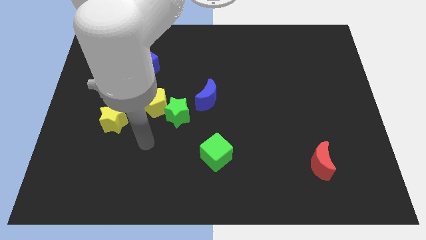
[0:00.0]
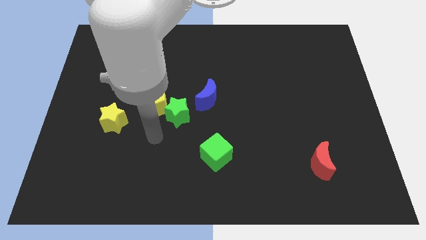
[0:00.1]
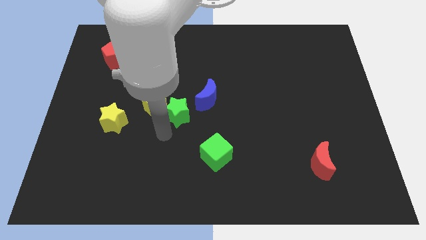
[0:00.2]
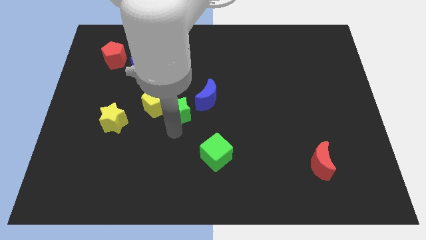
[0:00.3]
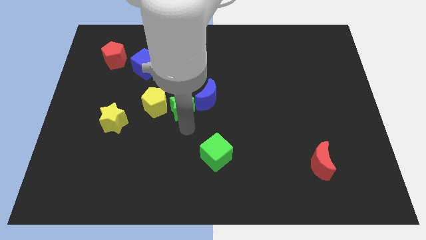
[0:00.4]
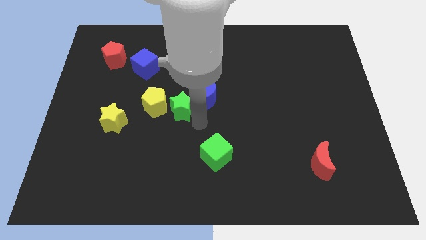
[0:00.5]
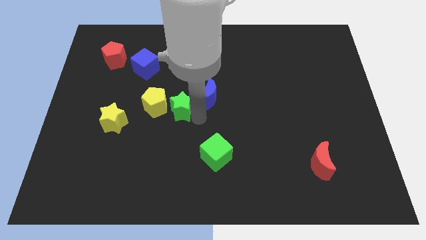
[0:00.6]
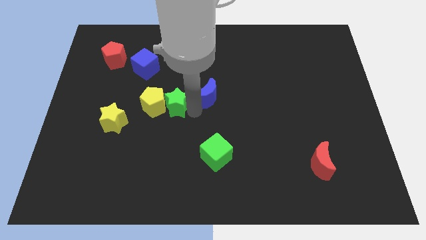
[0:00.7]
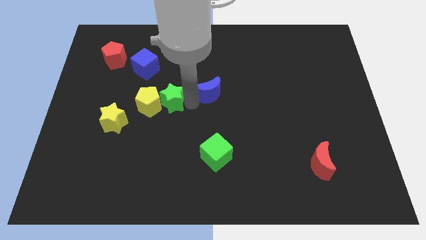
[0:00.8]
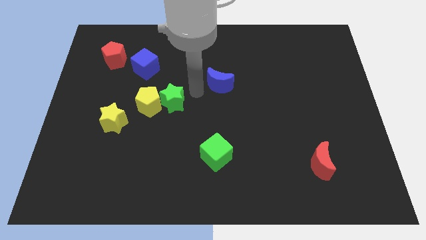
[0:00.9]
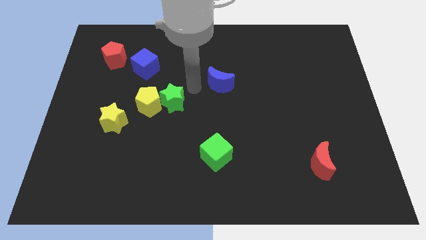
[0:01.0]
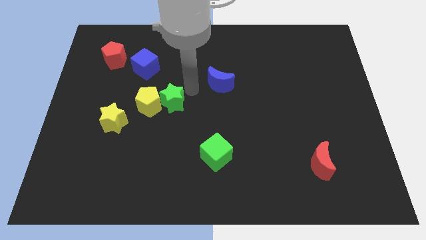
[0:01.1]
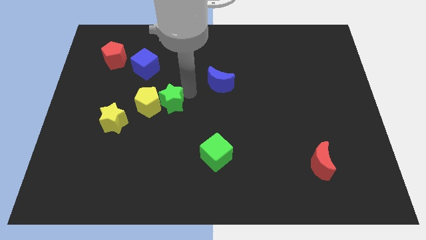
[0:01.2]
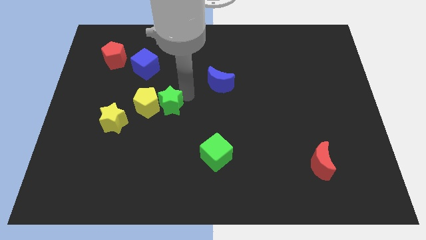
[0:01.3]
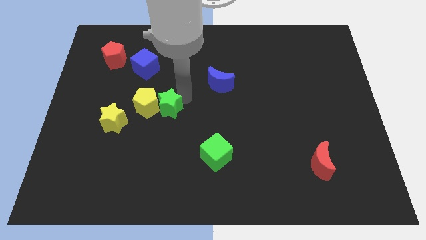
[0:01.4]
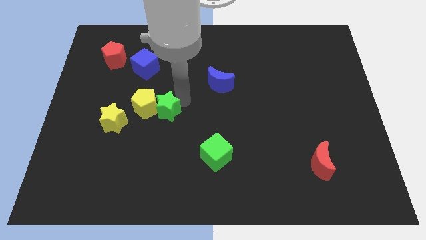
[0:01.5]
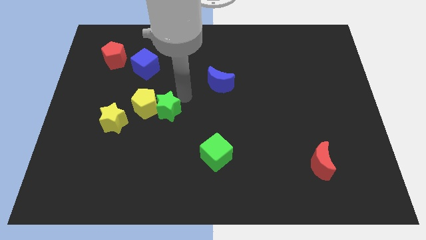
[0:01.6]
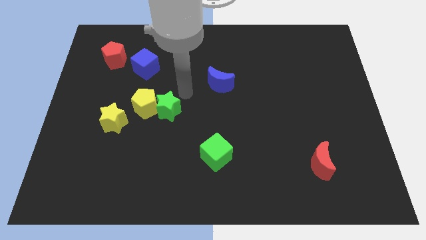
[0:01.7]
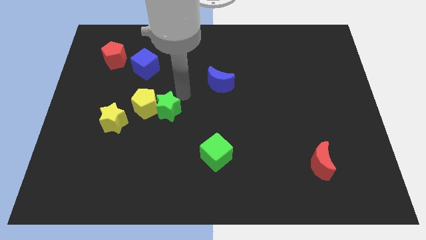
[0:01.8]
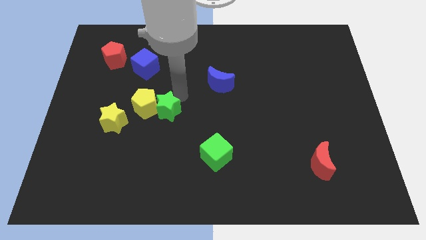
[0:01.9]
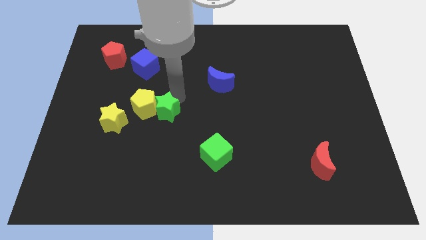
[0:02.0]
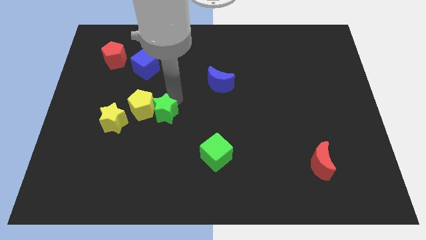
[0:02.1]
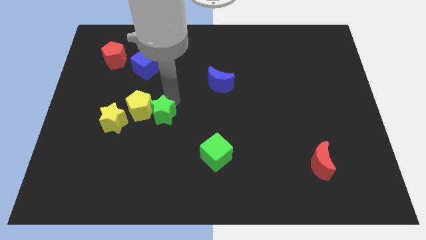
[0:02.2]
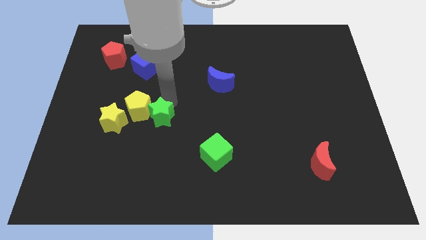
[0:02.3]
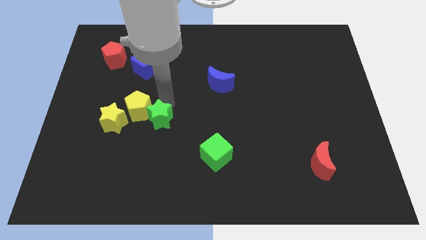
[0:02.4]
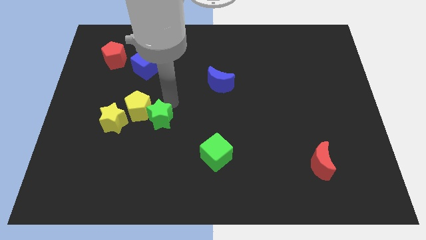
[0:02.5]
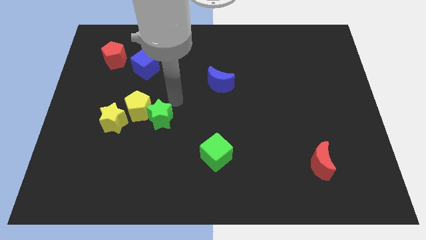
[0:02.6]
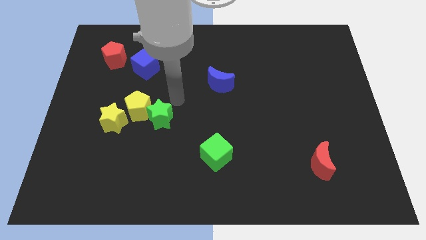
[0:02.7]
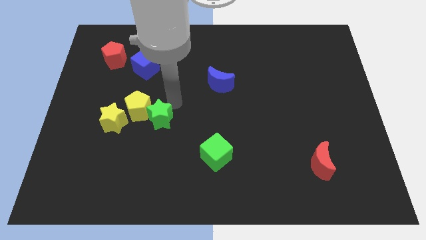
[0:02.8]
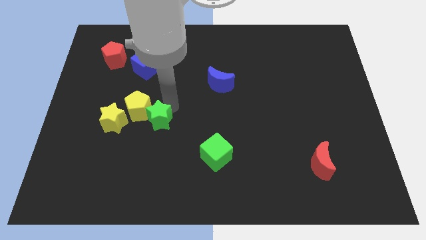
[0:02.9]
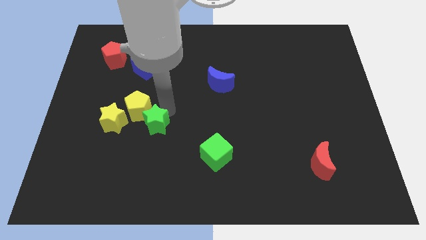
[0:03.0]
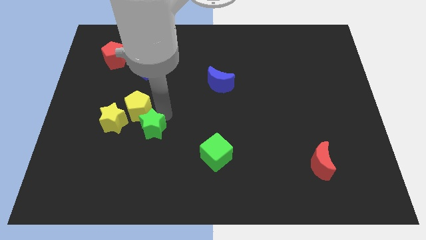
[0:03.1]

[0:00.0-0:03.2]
separate the green star from the yellow pentagon and blue moon

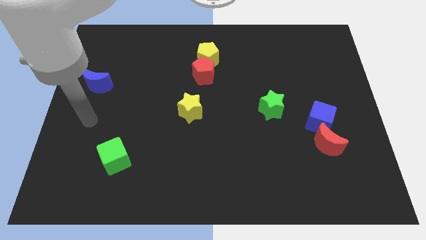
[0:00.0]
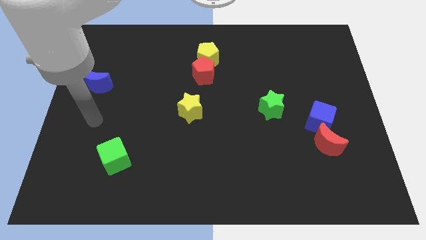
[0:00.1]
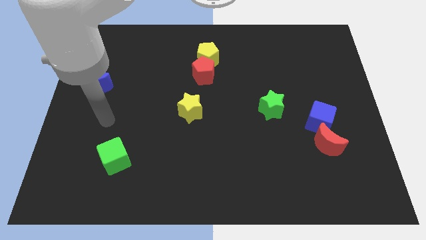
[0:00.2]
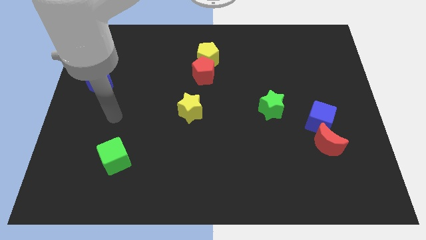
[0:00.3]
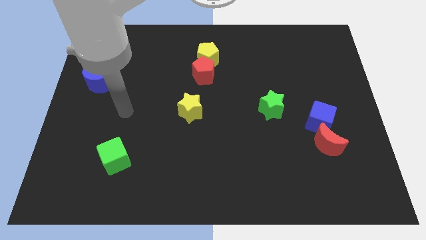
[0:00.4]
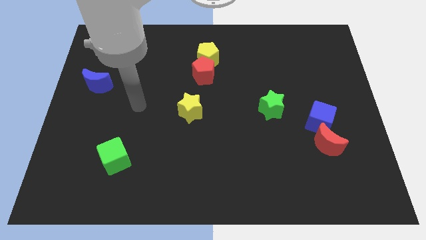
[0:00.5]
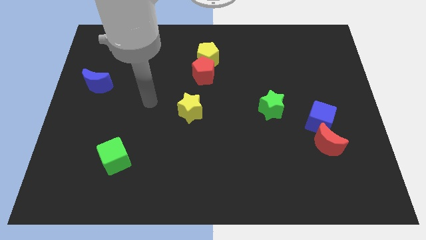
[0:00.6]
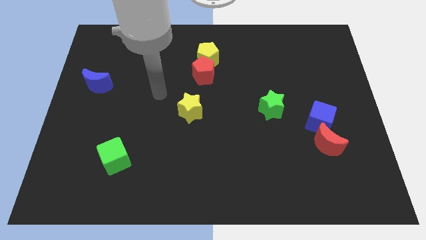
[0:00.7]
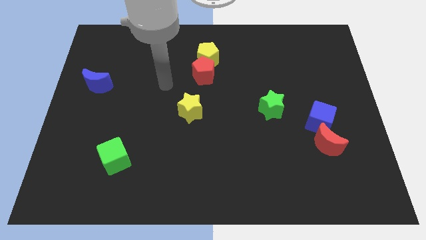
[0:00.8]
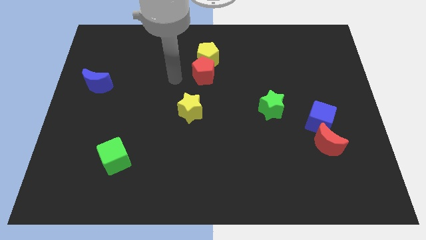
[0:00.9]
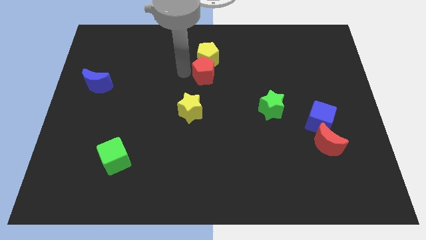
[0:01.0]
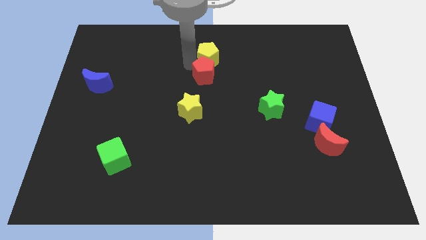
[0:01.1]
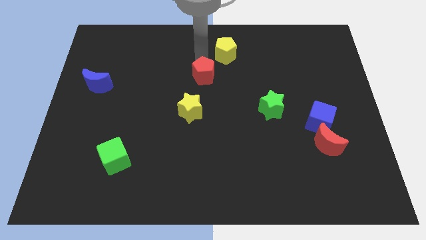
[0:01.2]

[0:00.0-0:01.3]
separate the red pentagon from the yellow pentagon

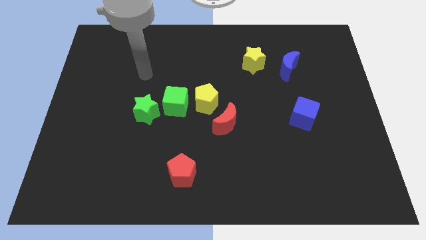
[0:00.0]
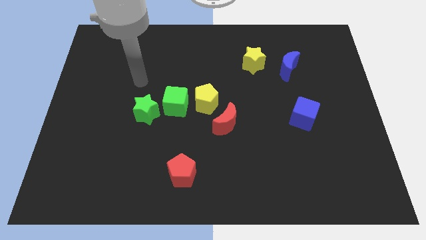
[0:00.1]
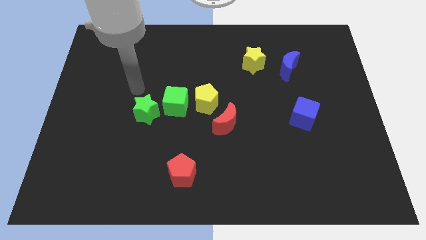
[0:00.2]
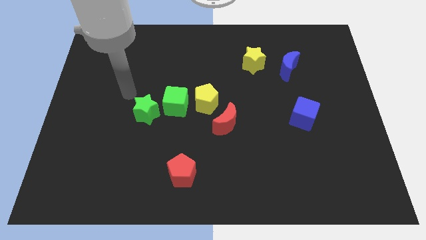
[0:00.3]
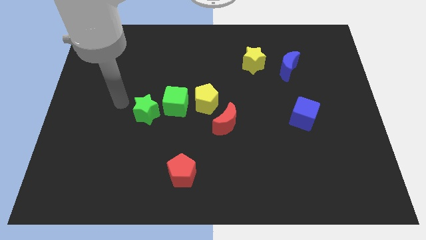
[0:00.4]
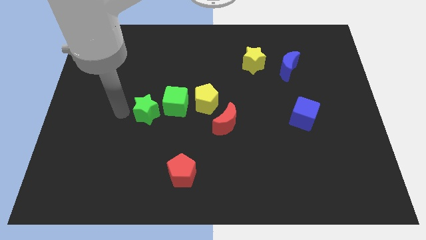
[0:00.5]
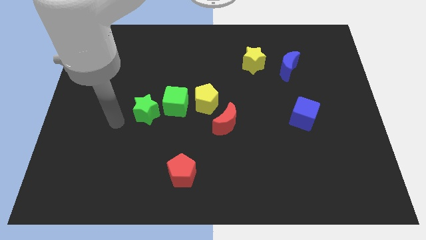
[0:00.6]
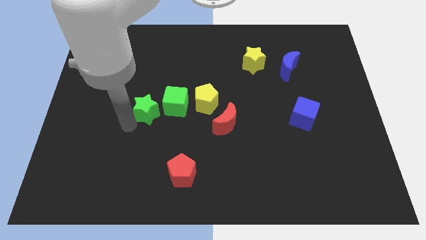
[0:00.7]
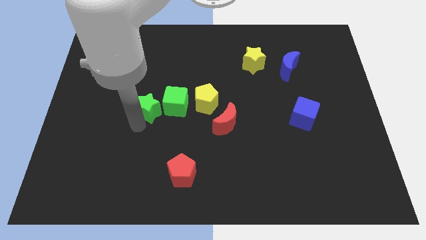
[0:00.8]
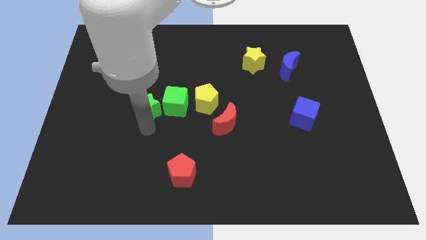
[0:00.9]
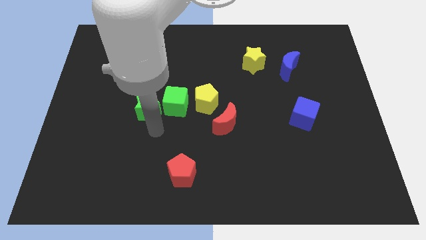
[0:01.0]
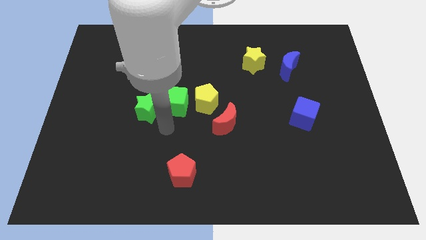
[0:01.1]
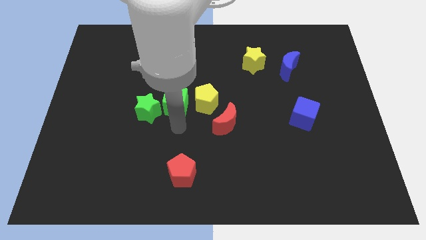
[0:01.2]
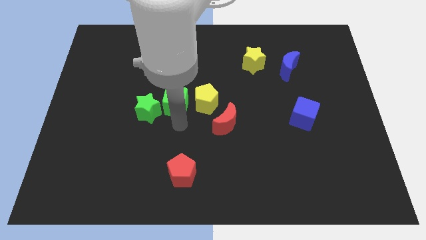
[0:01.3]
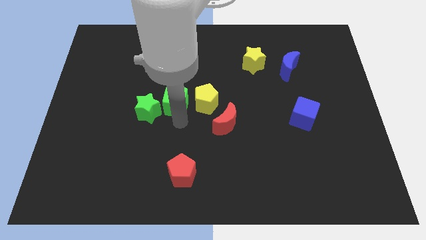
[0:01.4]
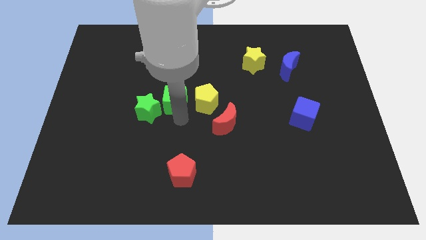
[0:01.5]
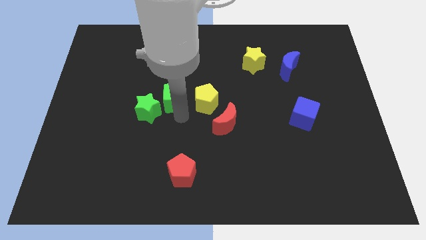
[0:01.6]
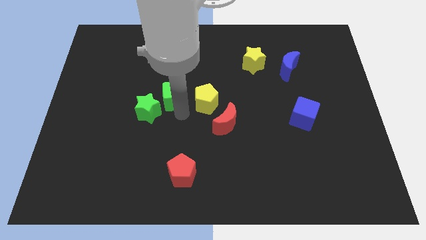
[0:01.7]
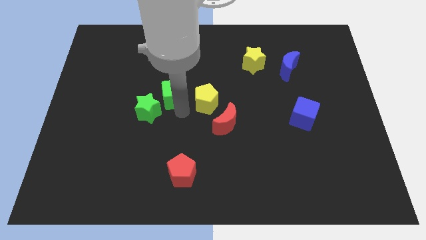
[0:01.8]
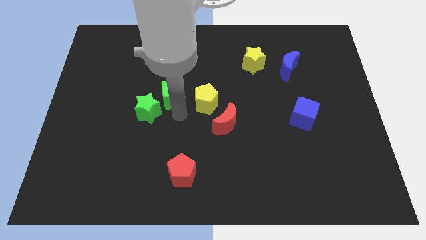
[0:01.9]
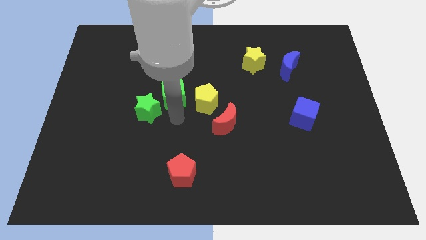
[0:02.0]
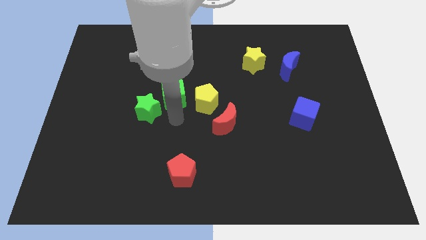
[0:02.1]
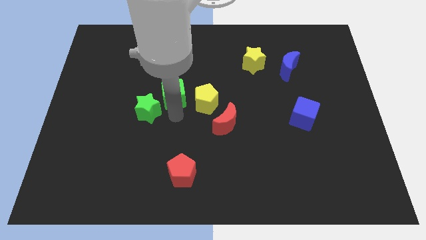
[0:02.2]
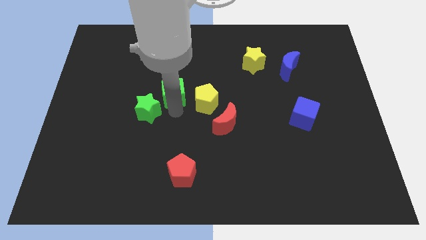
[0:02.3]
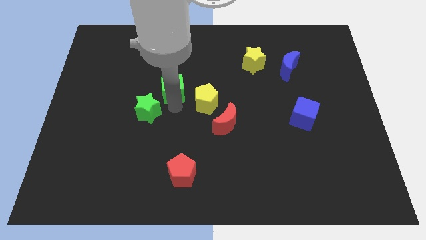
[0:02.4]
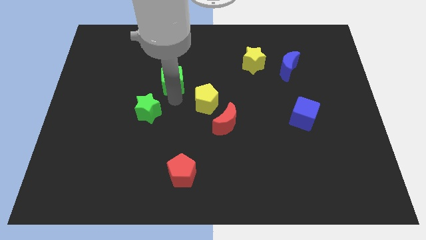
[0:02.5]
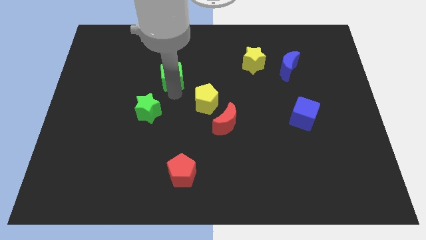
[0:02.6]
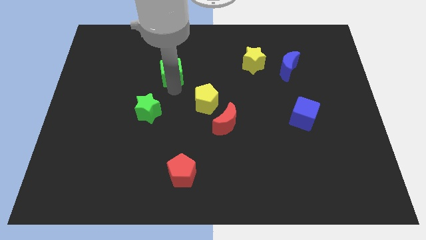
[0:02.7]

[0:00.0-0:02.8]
move the green cube away from the yellow pentagon and green star

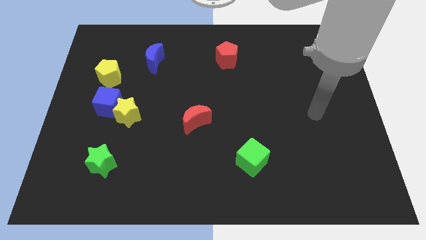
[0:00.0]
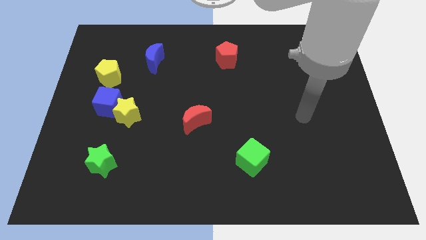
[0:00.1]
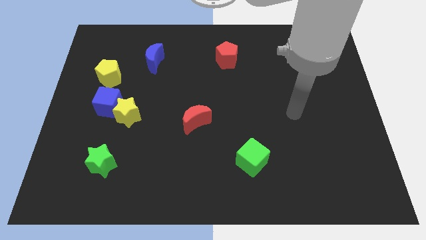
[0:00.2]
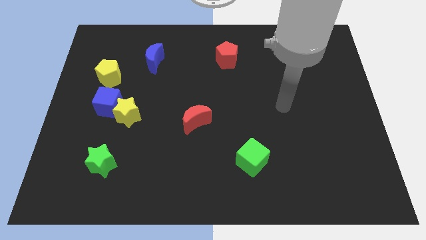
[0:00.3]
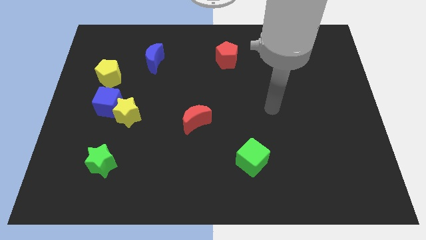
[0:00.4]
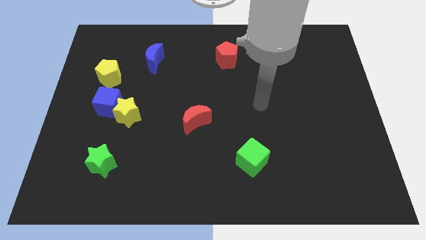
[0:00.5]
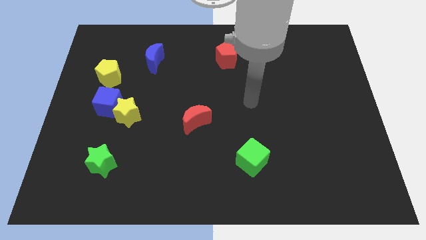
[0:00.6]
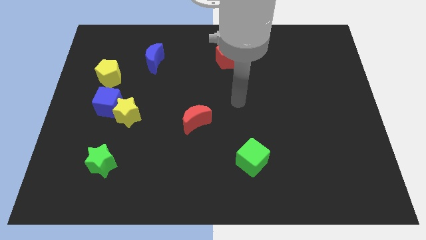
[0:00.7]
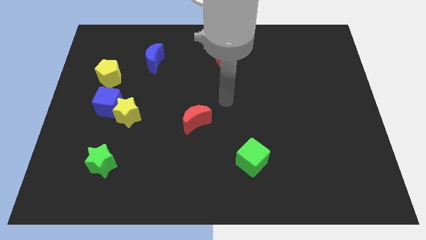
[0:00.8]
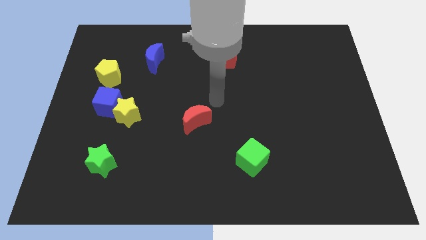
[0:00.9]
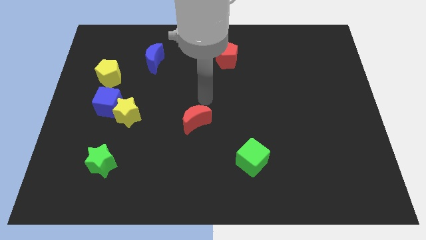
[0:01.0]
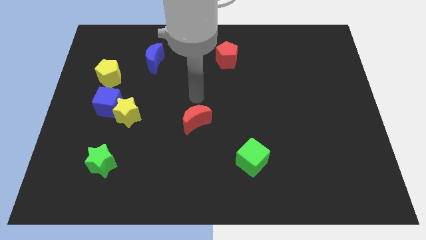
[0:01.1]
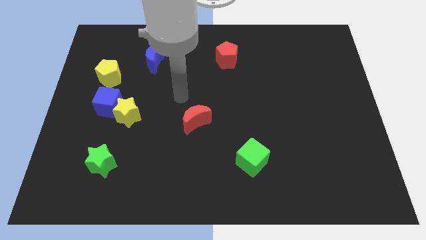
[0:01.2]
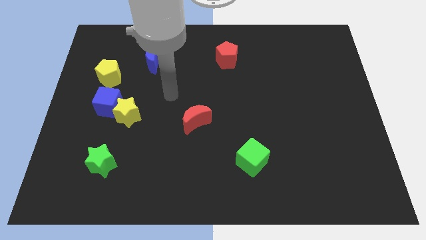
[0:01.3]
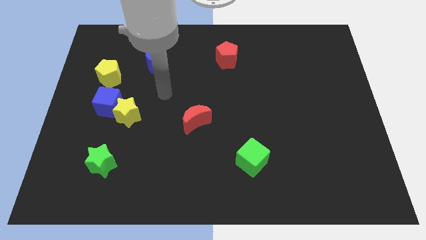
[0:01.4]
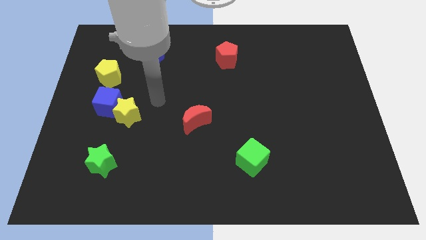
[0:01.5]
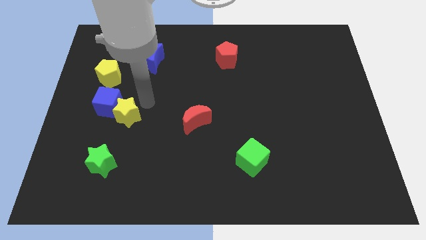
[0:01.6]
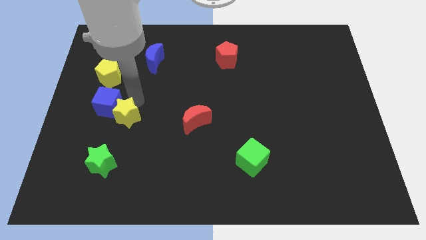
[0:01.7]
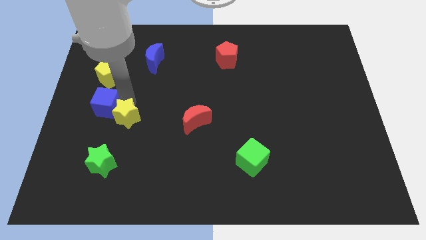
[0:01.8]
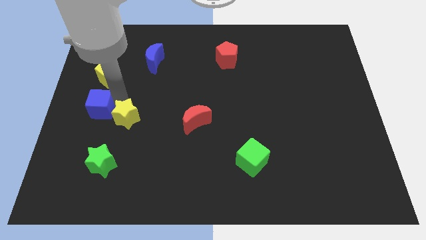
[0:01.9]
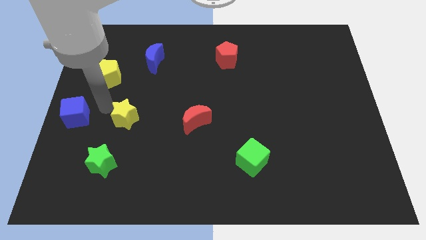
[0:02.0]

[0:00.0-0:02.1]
separate the yellow star from the blue cube
